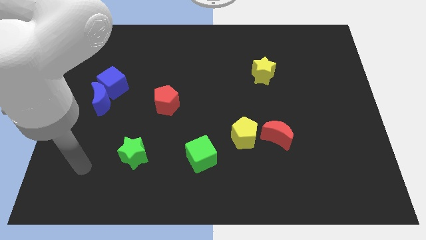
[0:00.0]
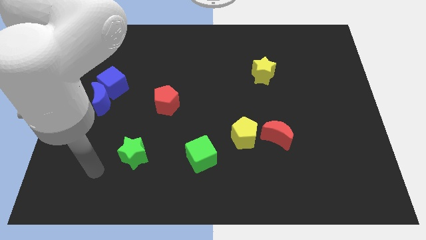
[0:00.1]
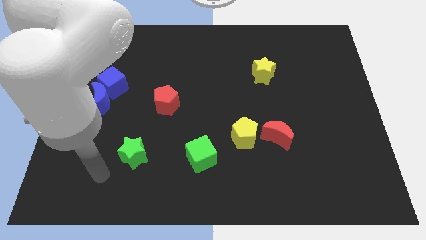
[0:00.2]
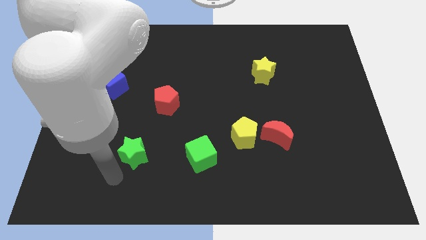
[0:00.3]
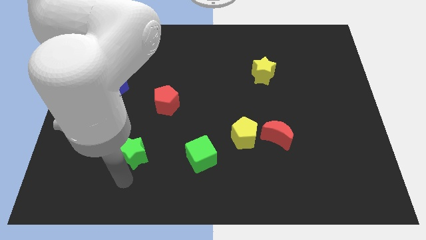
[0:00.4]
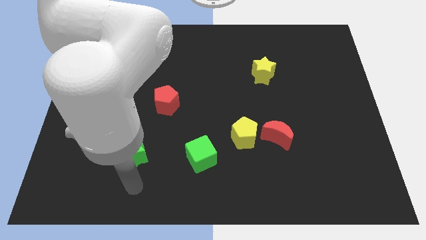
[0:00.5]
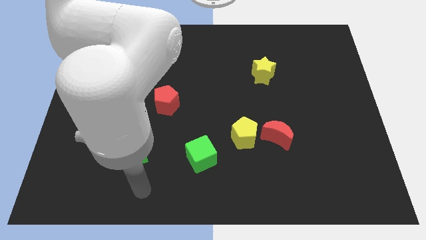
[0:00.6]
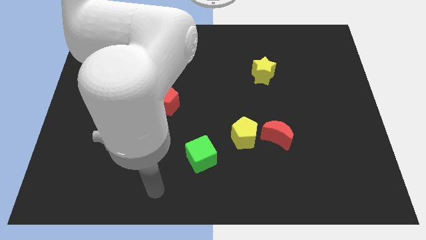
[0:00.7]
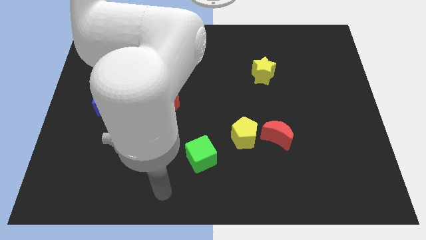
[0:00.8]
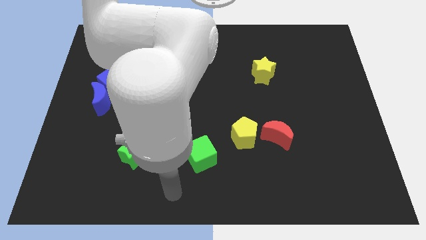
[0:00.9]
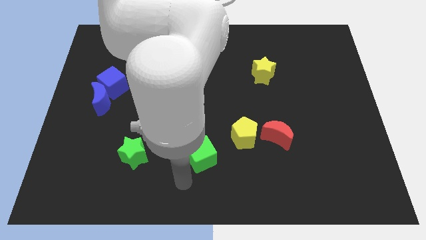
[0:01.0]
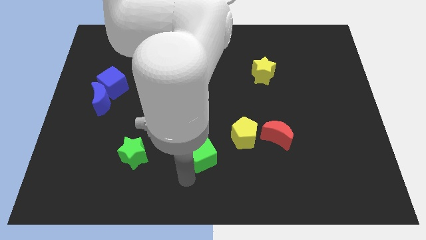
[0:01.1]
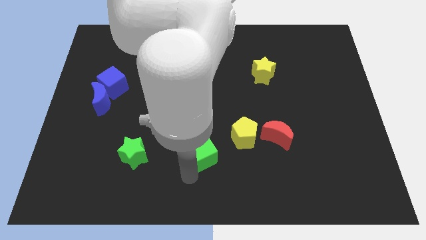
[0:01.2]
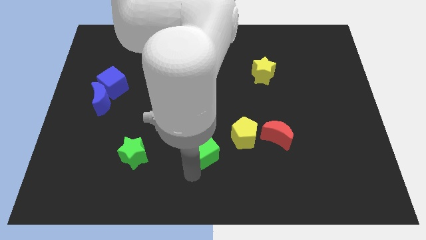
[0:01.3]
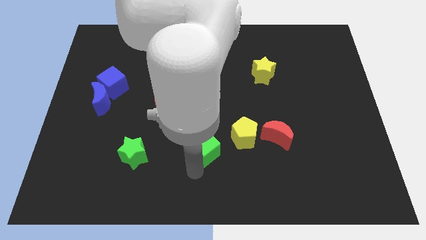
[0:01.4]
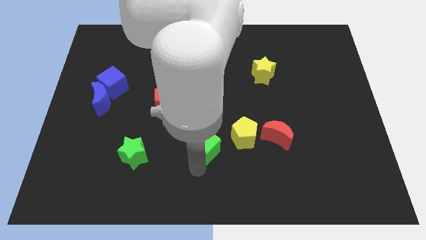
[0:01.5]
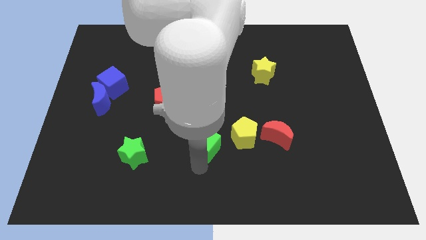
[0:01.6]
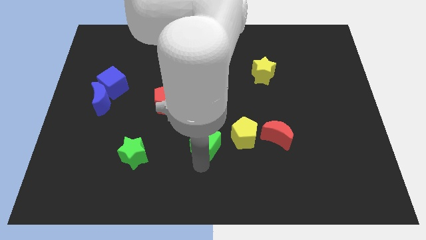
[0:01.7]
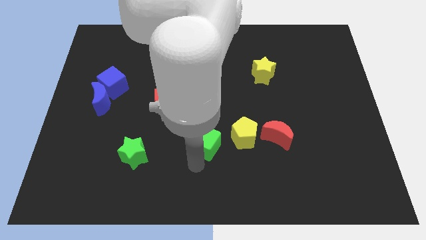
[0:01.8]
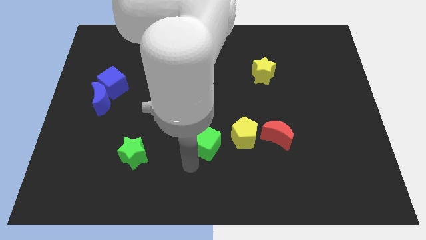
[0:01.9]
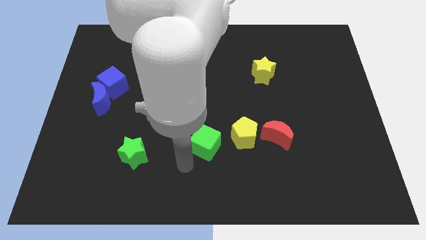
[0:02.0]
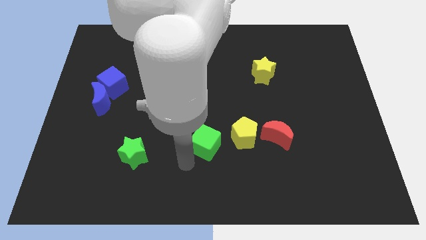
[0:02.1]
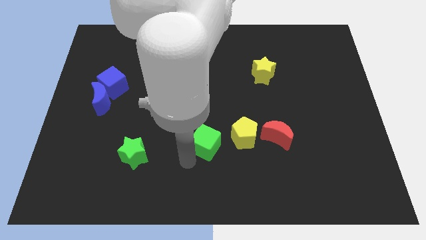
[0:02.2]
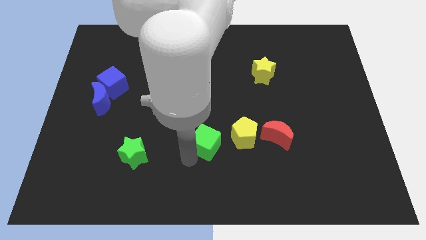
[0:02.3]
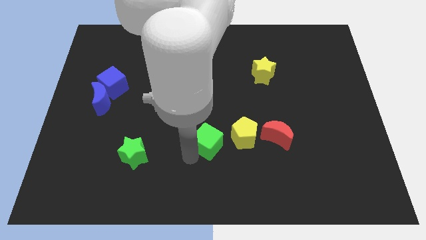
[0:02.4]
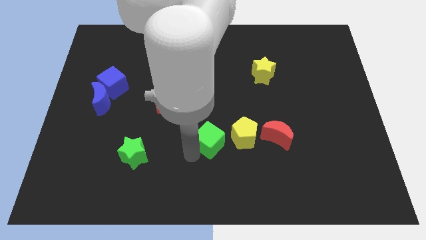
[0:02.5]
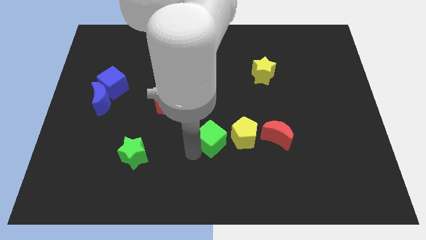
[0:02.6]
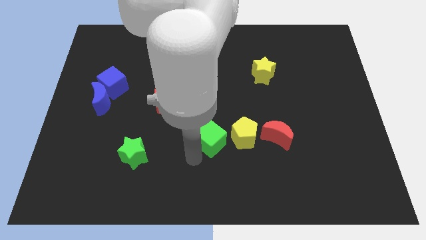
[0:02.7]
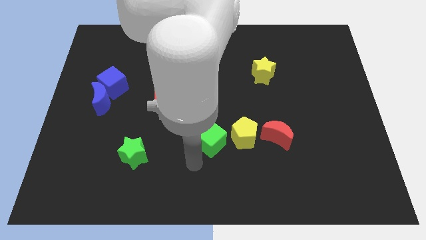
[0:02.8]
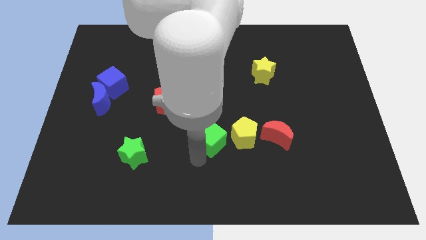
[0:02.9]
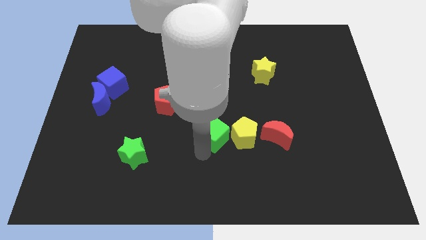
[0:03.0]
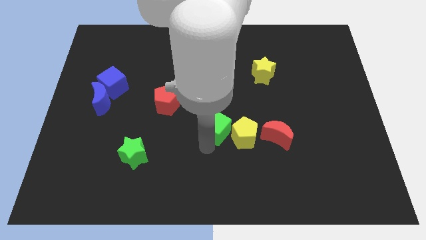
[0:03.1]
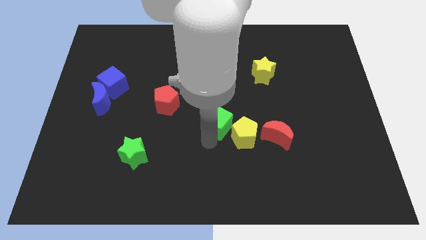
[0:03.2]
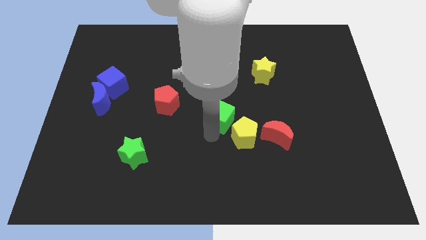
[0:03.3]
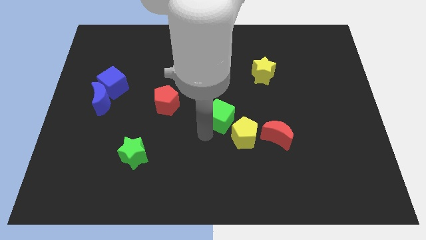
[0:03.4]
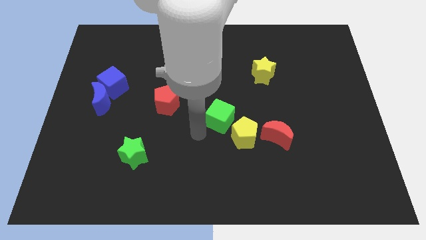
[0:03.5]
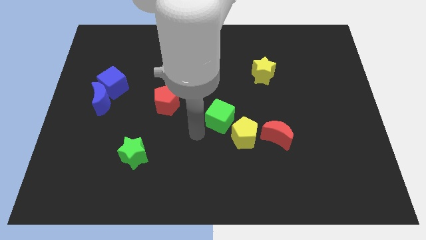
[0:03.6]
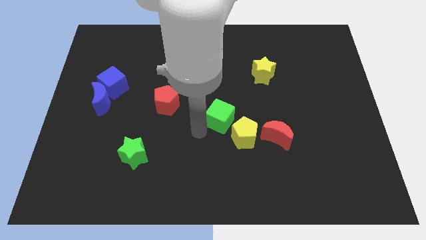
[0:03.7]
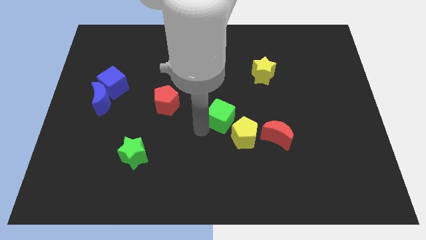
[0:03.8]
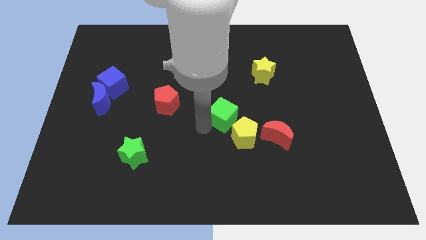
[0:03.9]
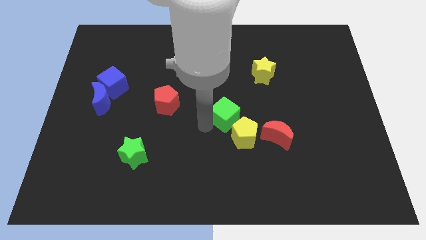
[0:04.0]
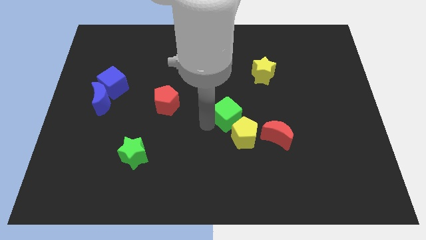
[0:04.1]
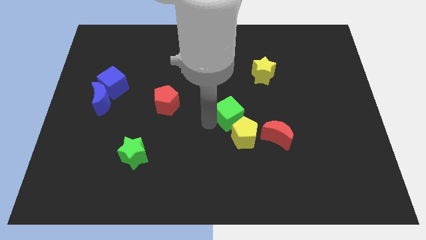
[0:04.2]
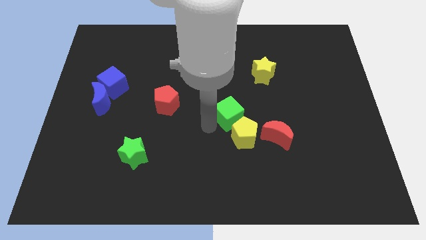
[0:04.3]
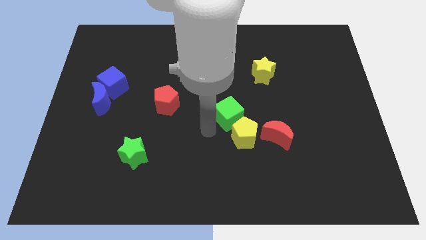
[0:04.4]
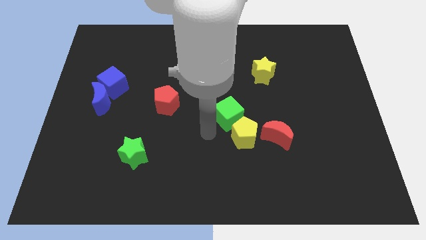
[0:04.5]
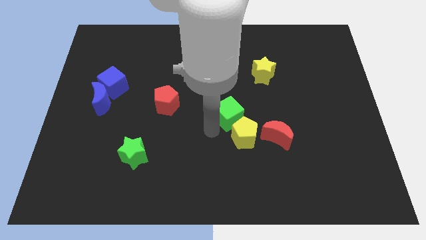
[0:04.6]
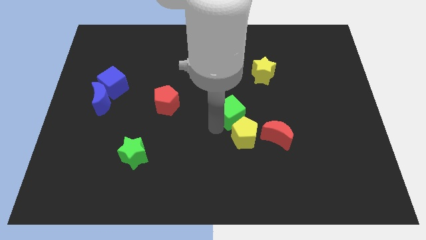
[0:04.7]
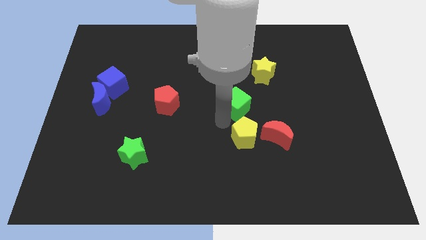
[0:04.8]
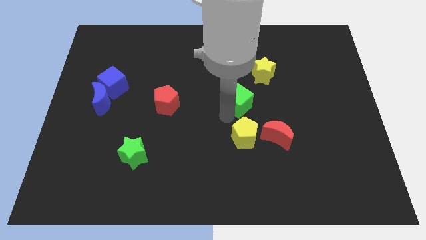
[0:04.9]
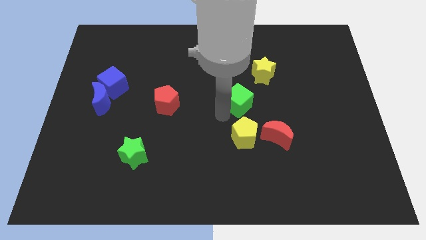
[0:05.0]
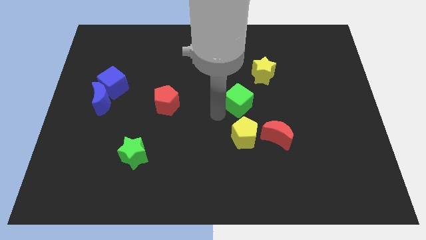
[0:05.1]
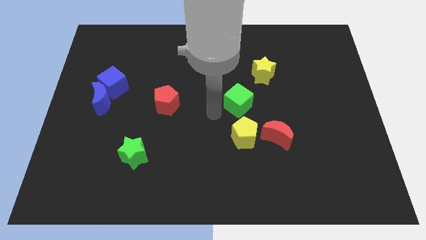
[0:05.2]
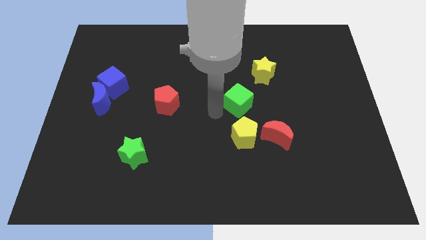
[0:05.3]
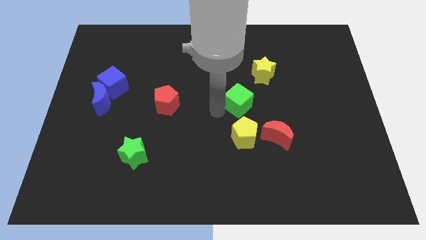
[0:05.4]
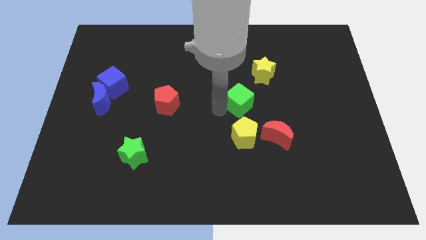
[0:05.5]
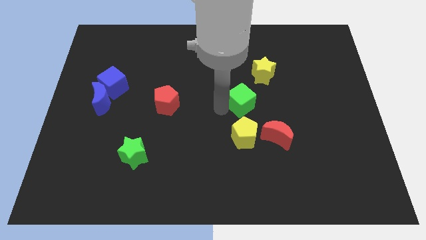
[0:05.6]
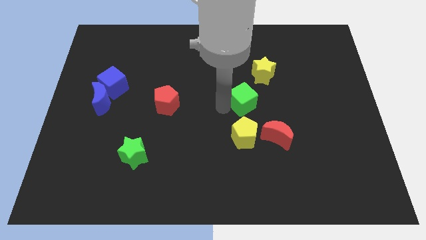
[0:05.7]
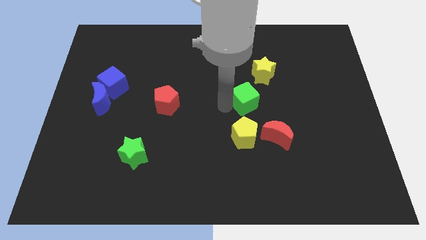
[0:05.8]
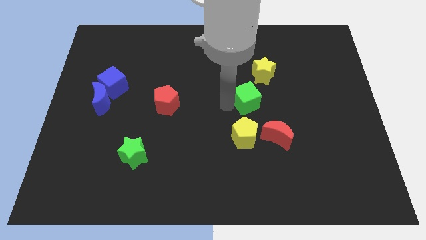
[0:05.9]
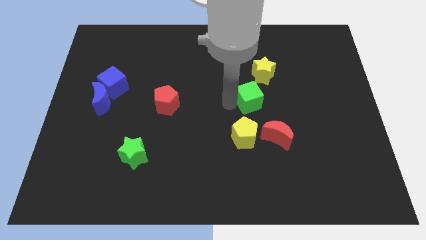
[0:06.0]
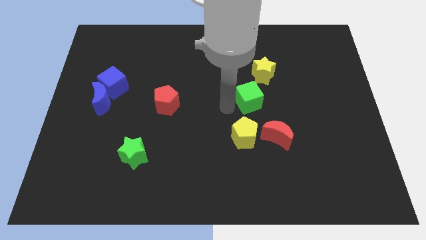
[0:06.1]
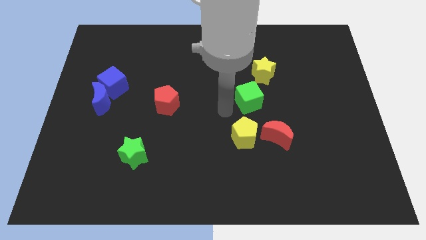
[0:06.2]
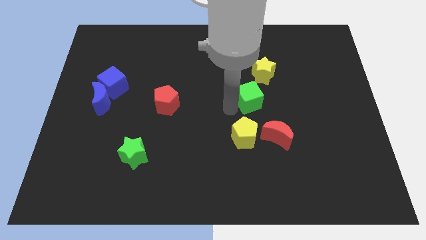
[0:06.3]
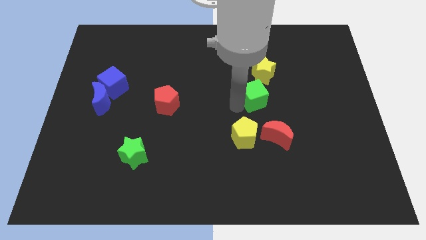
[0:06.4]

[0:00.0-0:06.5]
push the green cube upwards and to the right diagonally

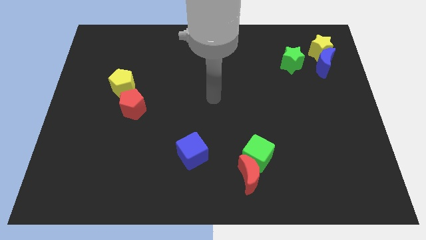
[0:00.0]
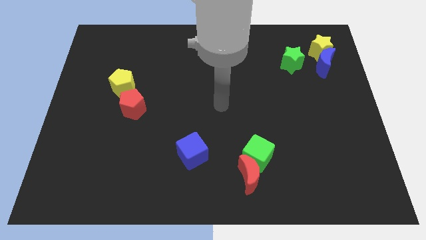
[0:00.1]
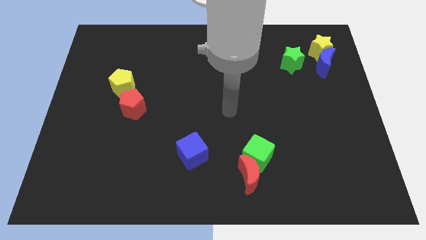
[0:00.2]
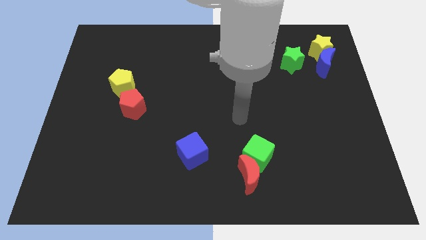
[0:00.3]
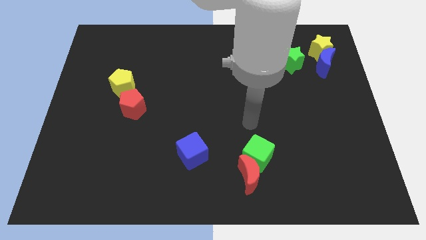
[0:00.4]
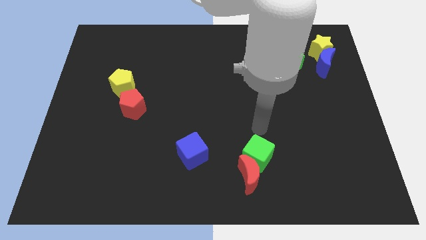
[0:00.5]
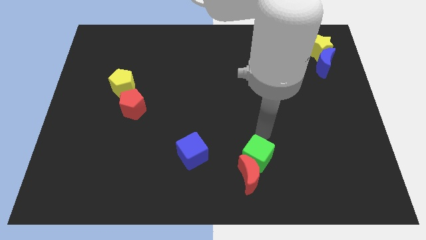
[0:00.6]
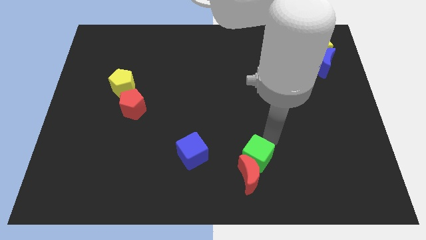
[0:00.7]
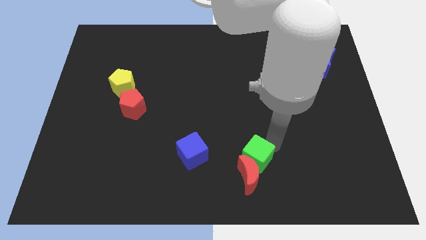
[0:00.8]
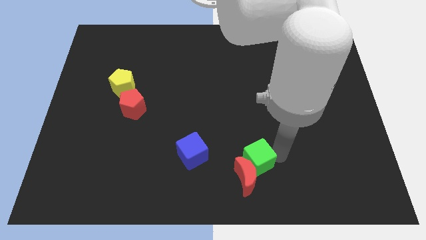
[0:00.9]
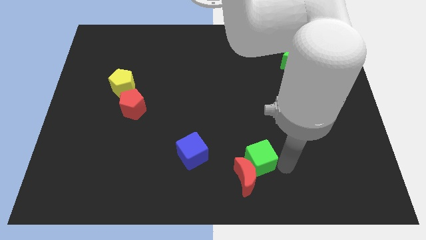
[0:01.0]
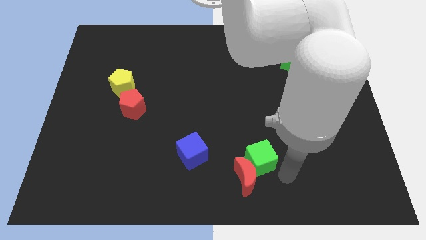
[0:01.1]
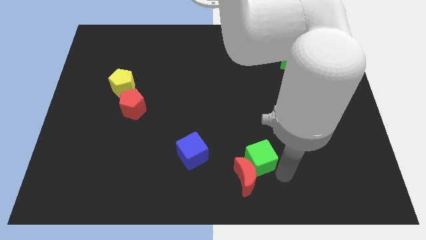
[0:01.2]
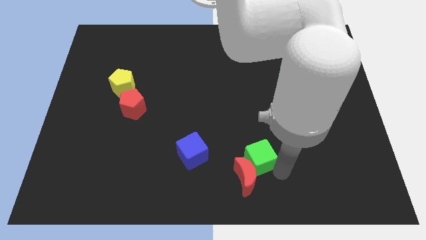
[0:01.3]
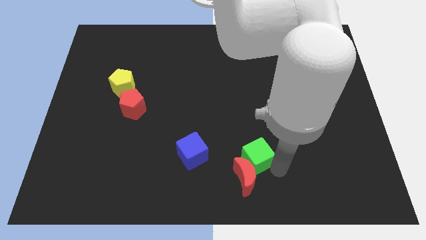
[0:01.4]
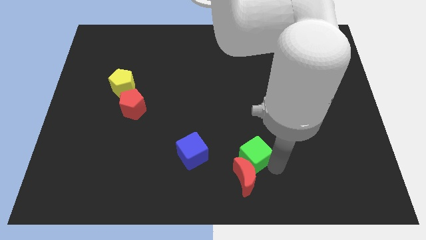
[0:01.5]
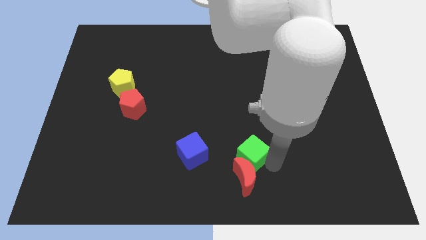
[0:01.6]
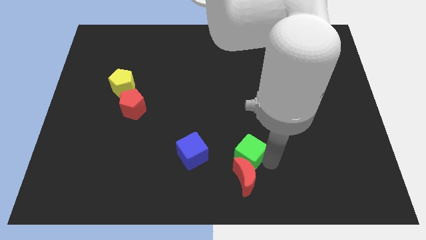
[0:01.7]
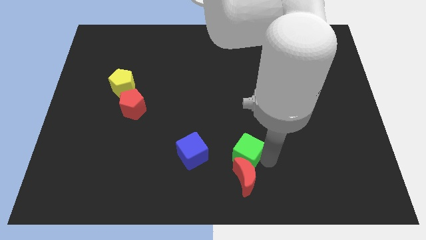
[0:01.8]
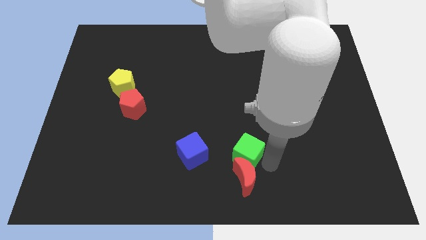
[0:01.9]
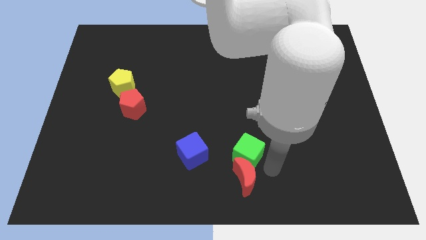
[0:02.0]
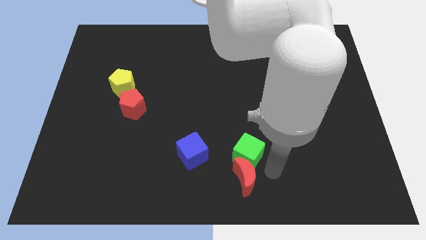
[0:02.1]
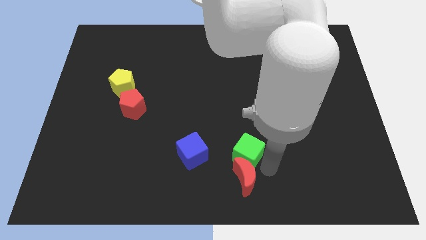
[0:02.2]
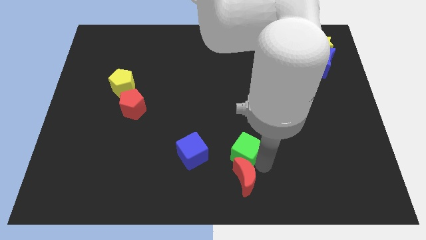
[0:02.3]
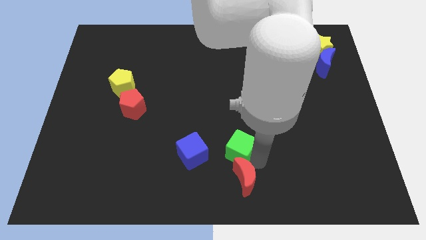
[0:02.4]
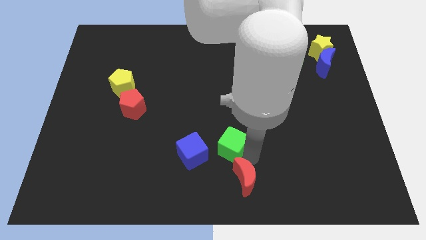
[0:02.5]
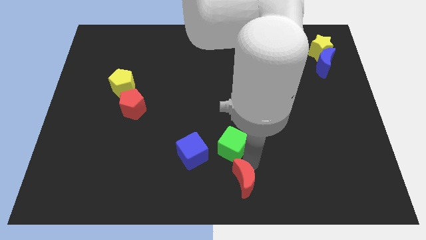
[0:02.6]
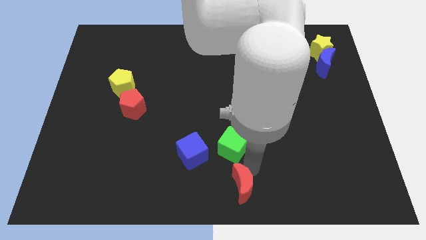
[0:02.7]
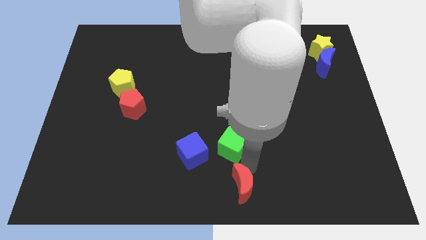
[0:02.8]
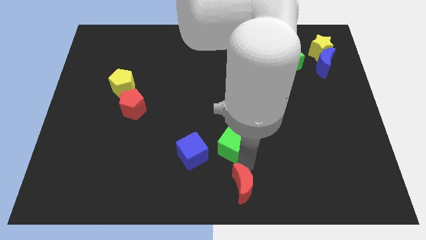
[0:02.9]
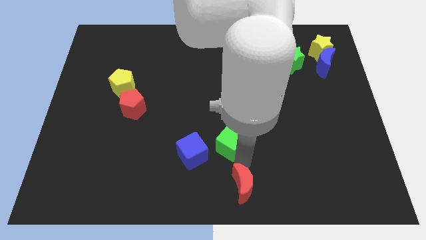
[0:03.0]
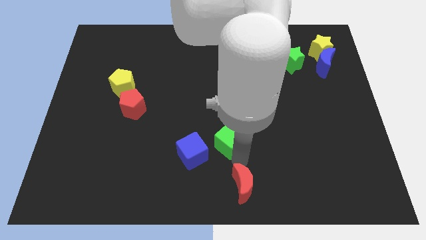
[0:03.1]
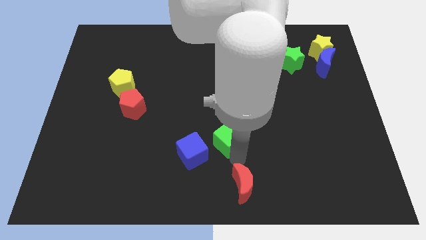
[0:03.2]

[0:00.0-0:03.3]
slightly move the green cube diagonally upwards and to the left
